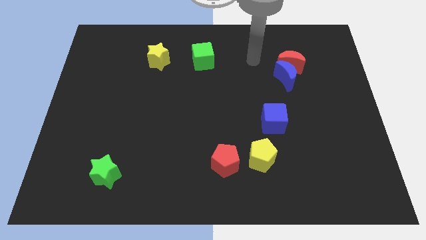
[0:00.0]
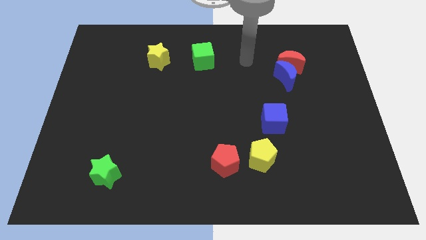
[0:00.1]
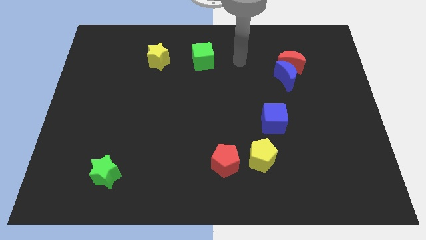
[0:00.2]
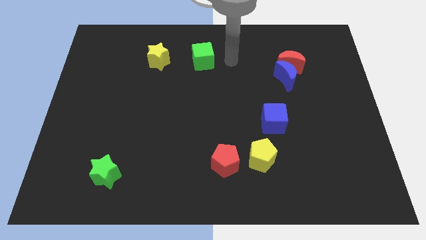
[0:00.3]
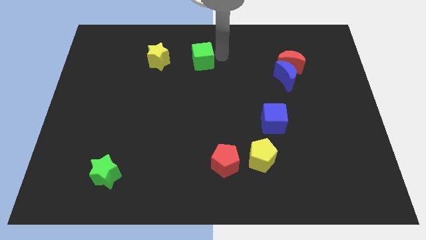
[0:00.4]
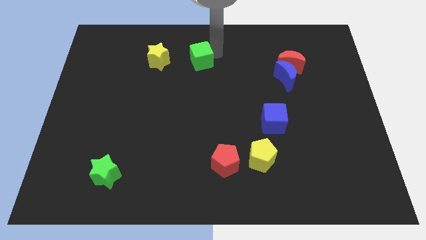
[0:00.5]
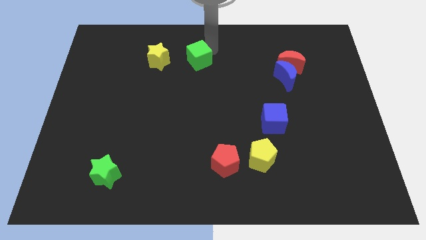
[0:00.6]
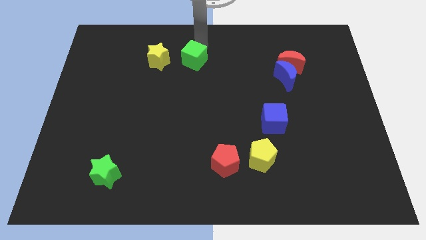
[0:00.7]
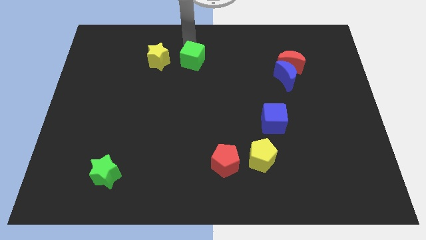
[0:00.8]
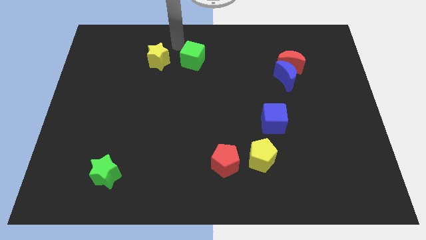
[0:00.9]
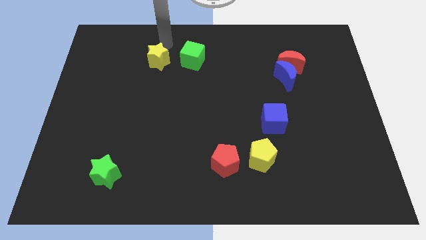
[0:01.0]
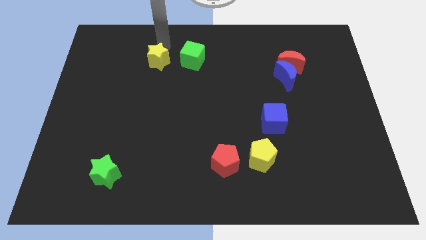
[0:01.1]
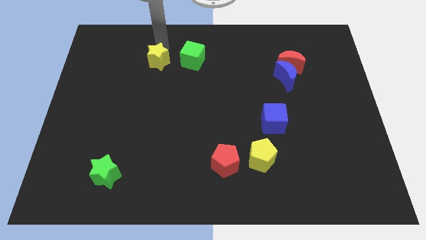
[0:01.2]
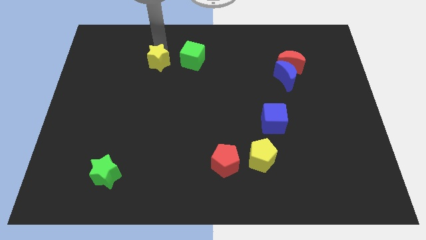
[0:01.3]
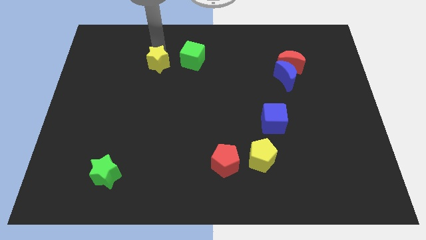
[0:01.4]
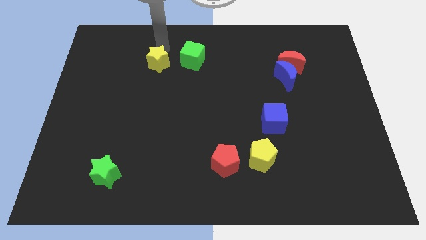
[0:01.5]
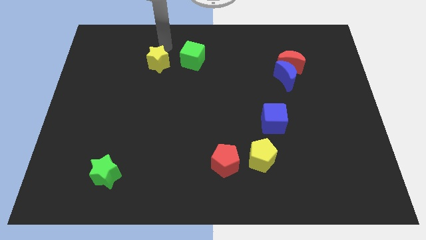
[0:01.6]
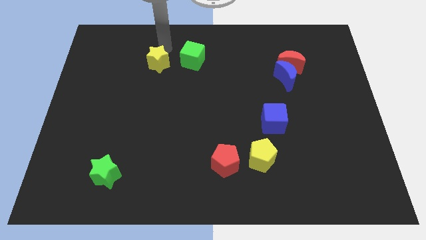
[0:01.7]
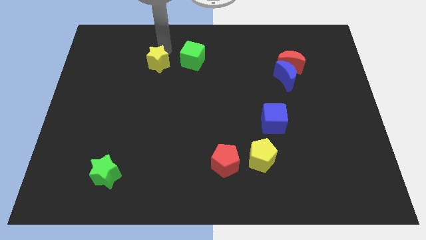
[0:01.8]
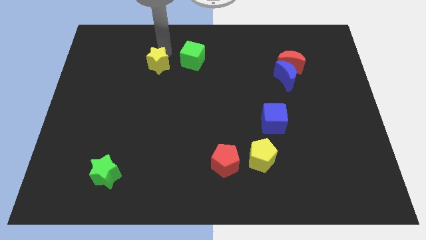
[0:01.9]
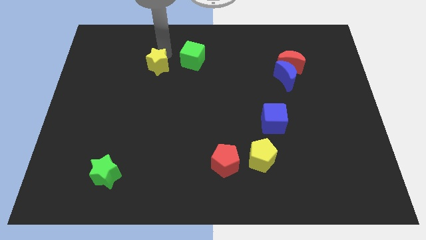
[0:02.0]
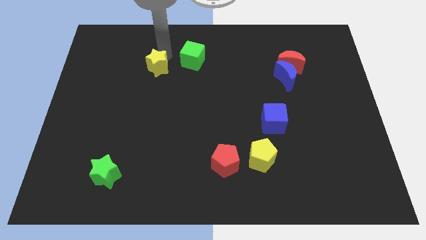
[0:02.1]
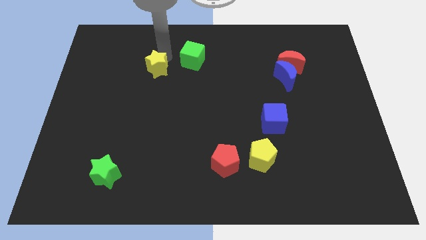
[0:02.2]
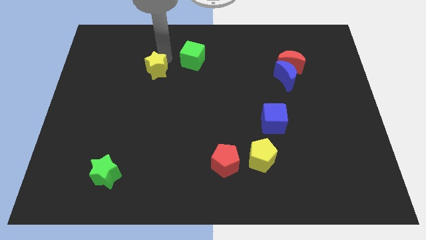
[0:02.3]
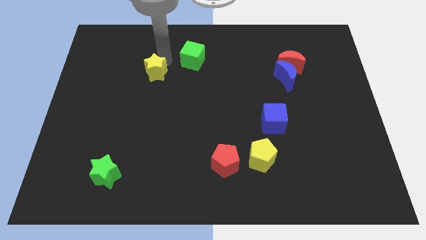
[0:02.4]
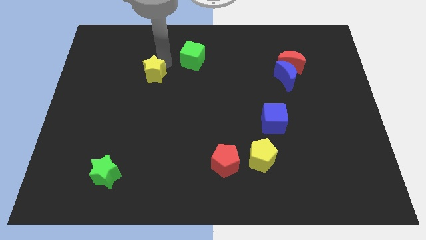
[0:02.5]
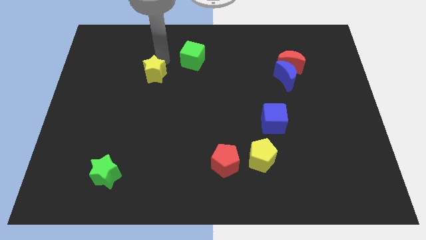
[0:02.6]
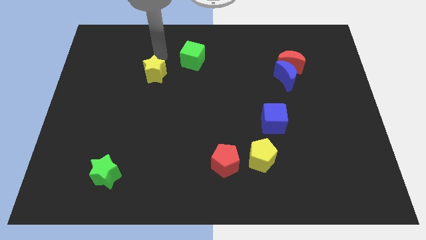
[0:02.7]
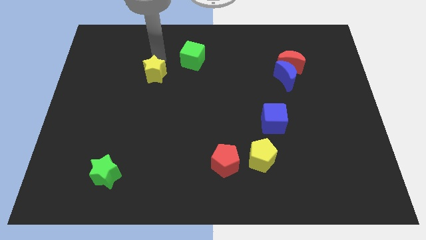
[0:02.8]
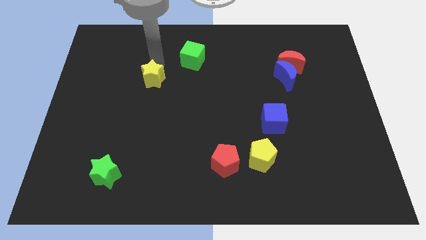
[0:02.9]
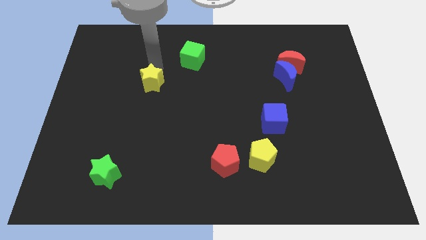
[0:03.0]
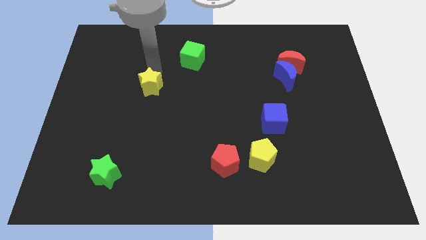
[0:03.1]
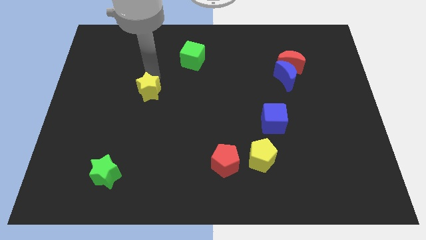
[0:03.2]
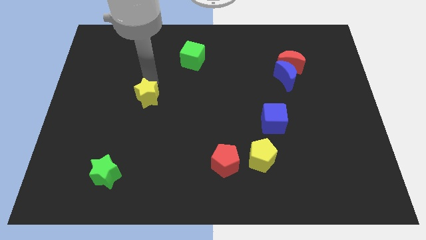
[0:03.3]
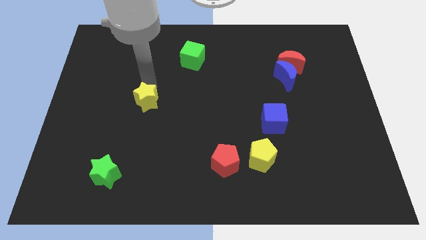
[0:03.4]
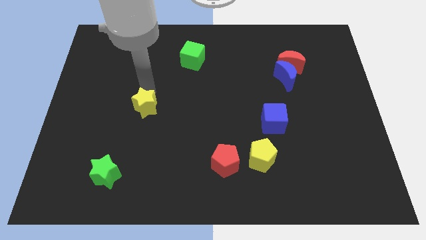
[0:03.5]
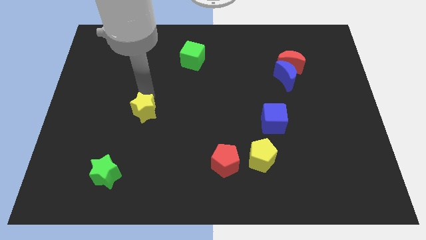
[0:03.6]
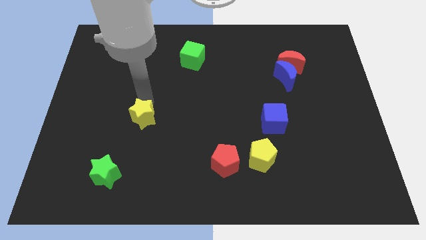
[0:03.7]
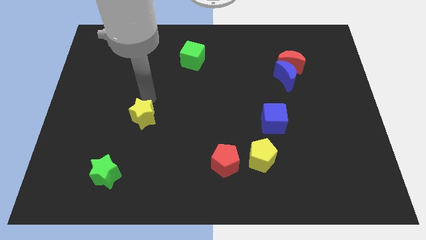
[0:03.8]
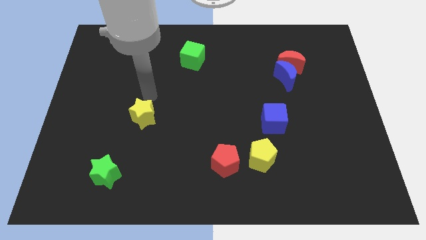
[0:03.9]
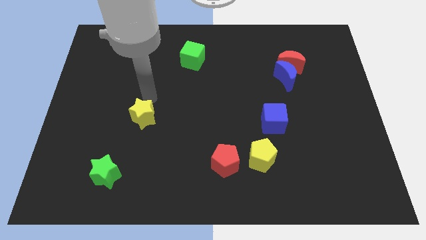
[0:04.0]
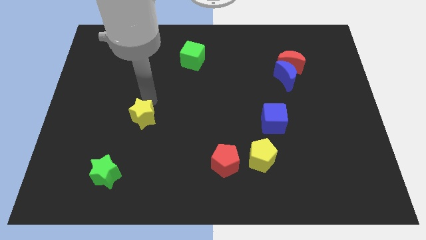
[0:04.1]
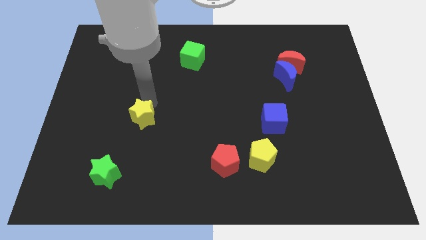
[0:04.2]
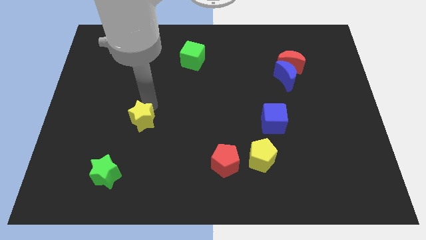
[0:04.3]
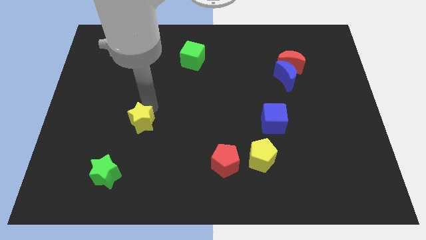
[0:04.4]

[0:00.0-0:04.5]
move the yellow star downwards

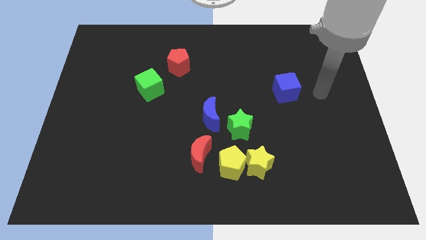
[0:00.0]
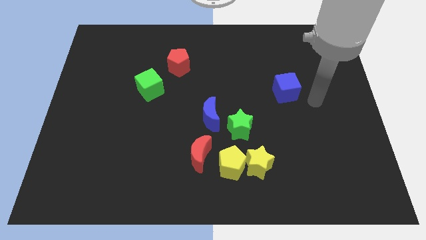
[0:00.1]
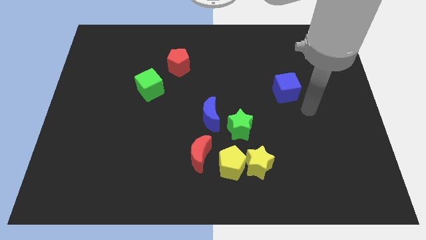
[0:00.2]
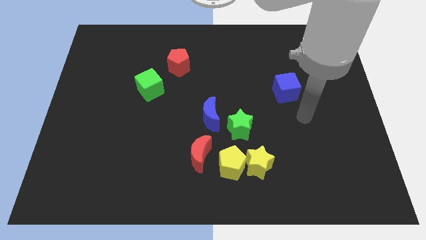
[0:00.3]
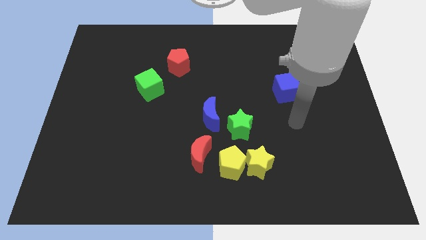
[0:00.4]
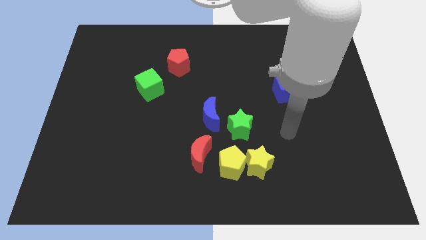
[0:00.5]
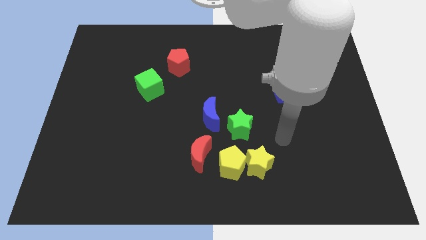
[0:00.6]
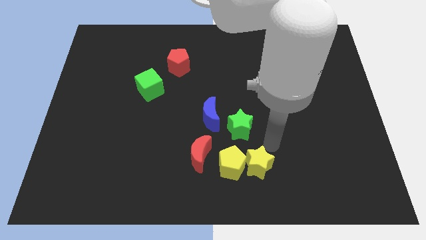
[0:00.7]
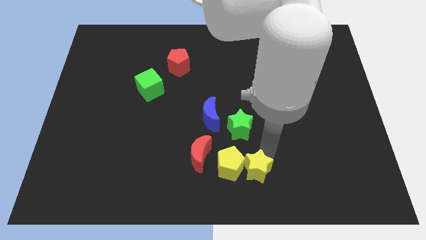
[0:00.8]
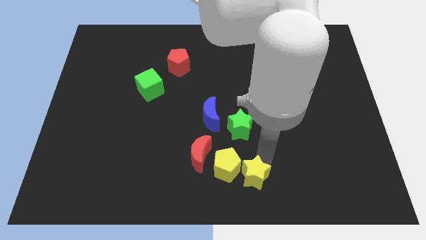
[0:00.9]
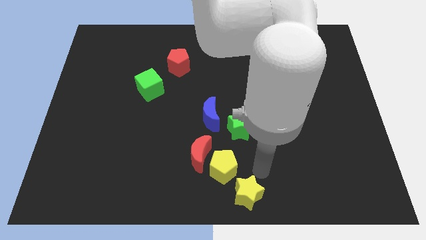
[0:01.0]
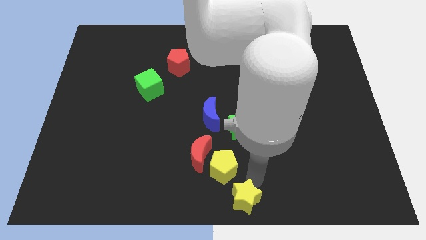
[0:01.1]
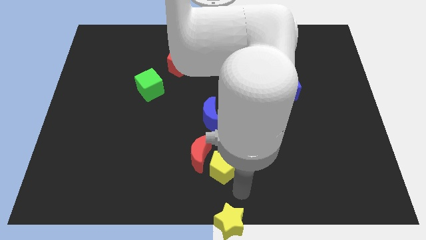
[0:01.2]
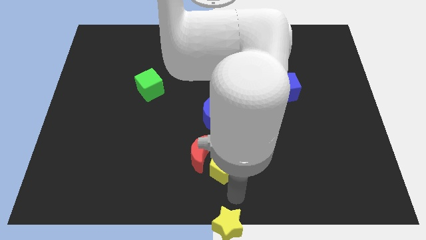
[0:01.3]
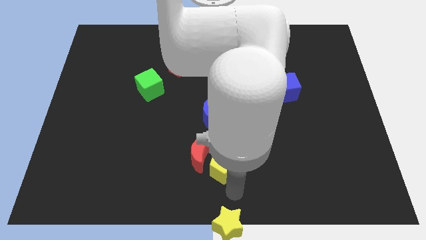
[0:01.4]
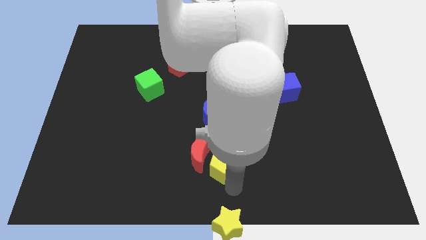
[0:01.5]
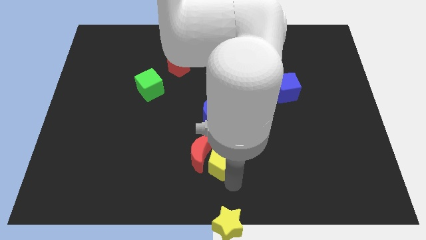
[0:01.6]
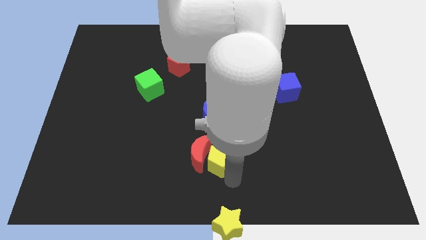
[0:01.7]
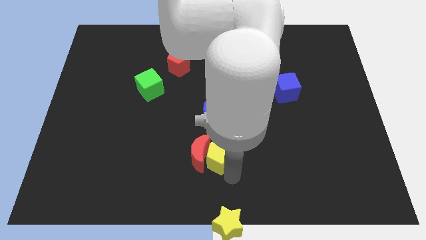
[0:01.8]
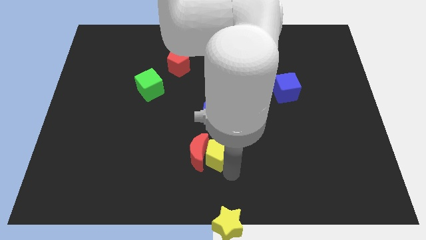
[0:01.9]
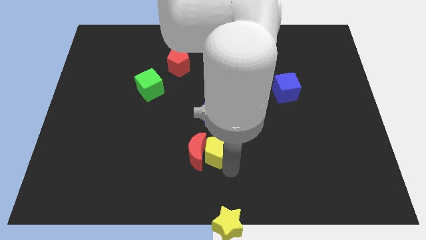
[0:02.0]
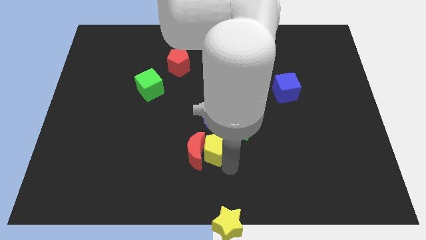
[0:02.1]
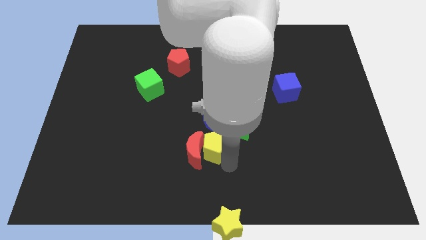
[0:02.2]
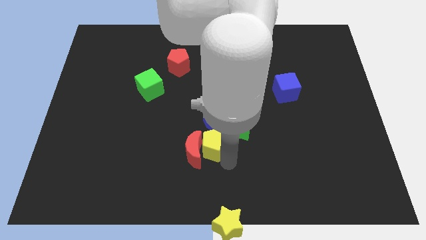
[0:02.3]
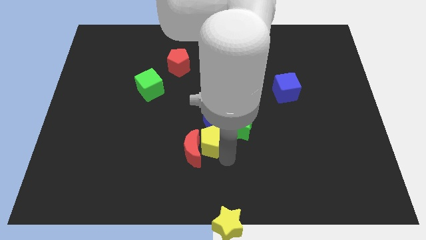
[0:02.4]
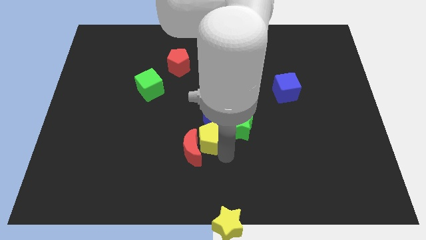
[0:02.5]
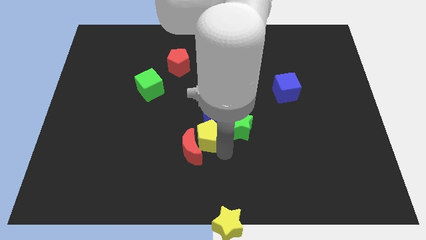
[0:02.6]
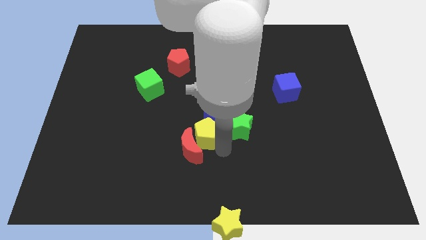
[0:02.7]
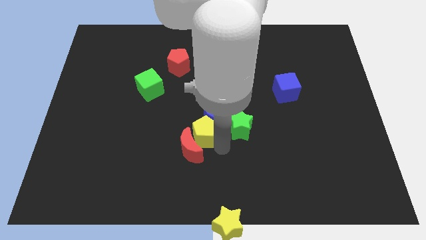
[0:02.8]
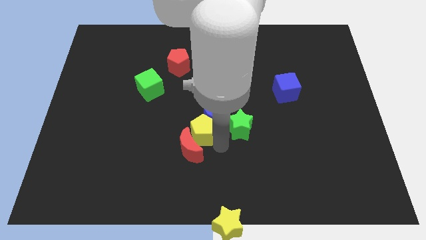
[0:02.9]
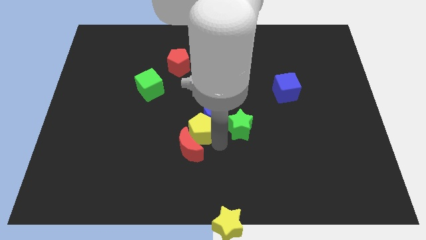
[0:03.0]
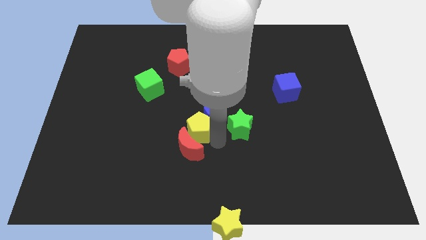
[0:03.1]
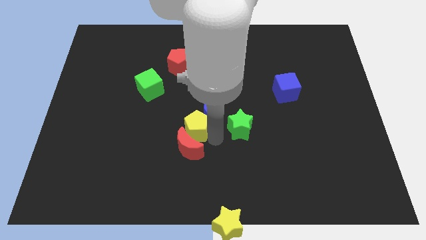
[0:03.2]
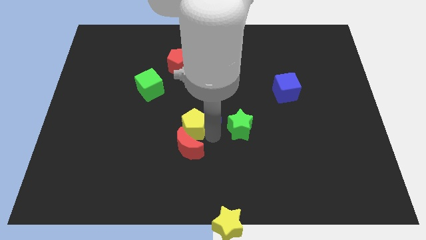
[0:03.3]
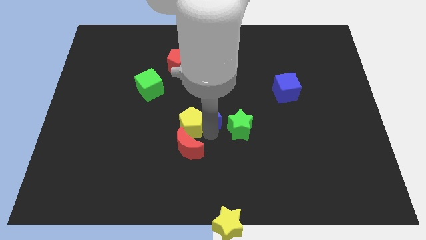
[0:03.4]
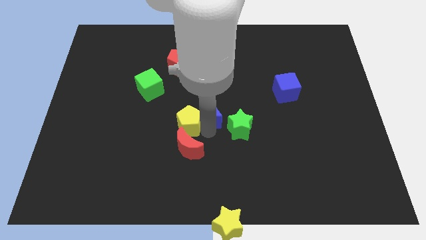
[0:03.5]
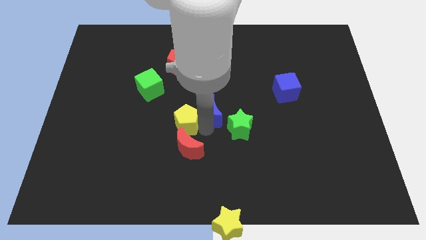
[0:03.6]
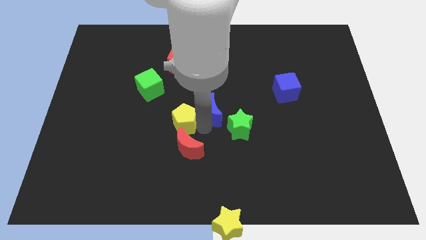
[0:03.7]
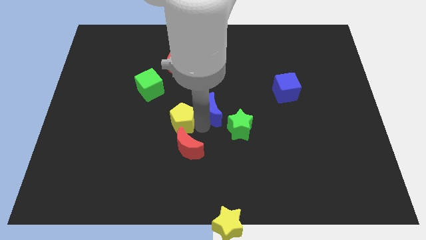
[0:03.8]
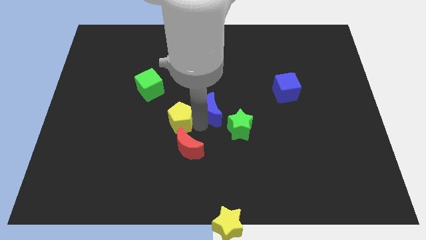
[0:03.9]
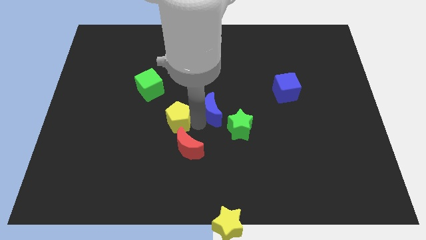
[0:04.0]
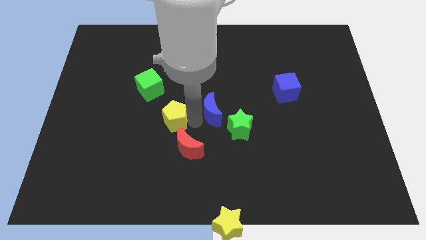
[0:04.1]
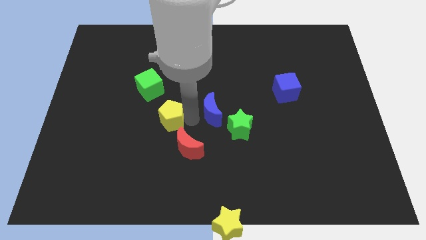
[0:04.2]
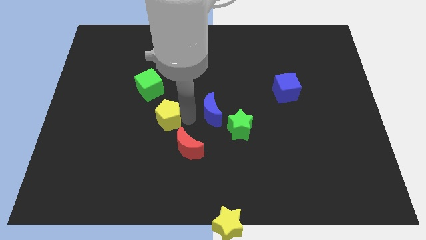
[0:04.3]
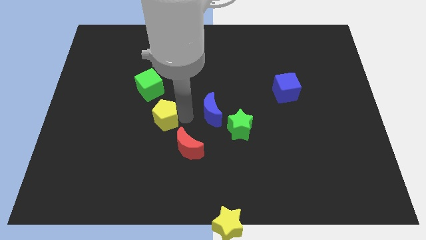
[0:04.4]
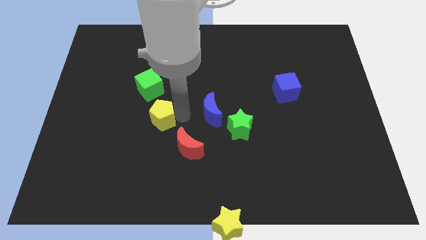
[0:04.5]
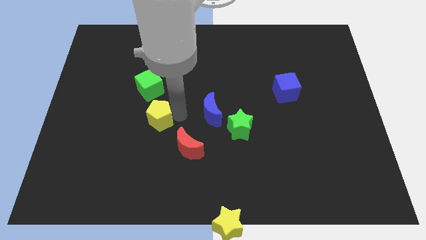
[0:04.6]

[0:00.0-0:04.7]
move the yellow pentagon diagonally upwards and left
